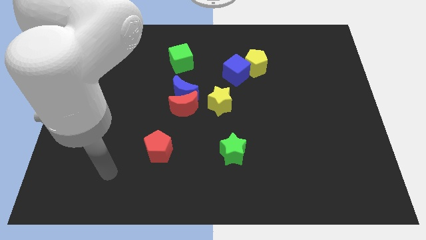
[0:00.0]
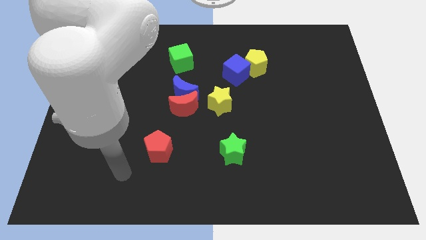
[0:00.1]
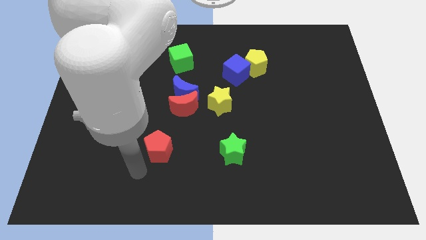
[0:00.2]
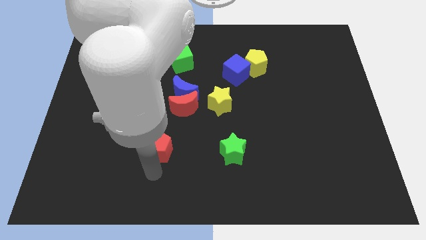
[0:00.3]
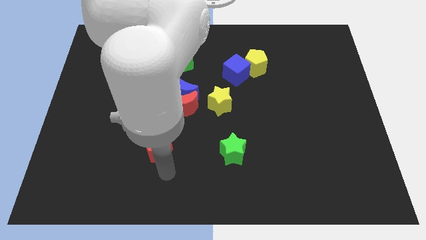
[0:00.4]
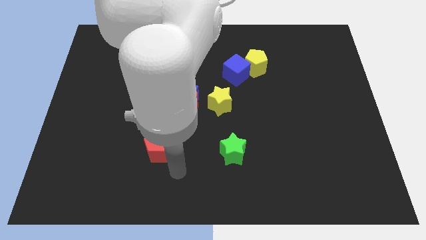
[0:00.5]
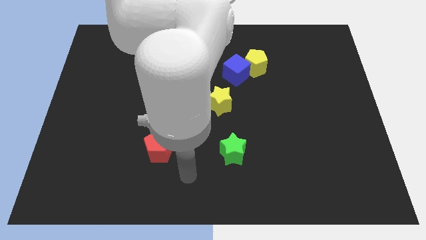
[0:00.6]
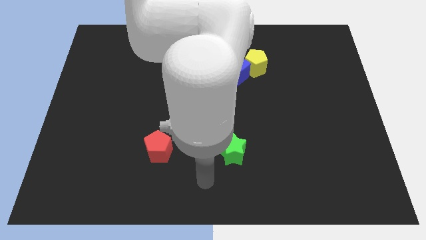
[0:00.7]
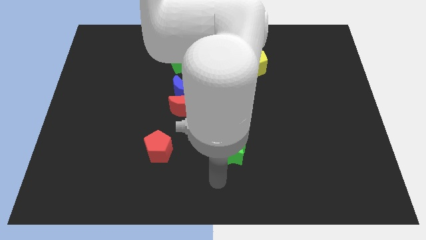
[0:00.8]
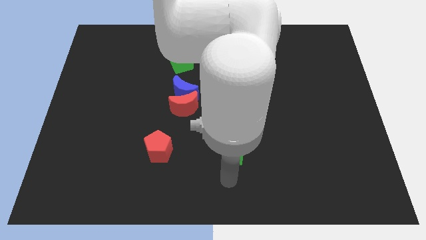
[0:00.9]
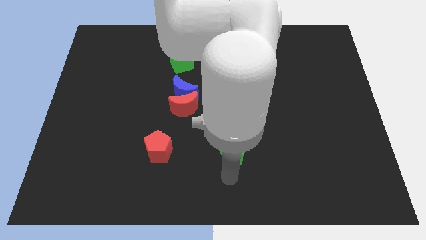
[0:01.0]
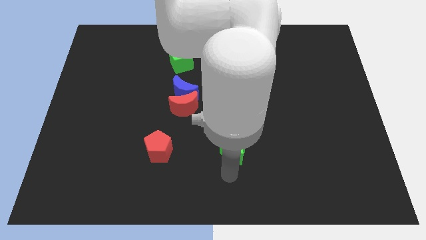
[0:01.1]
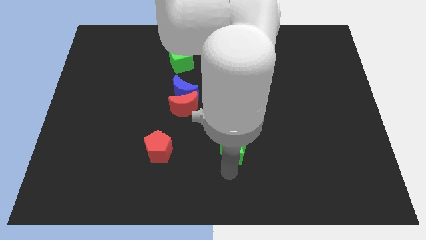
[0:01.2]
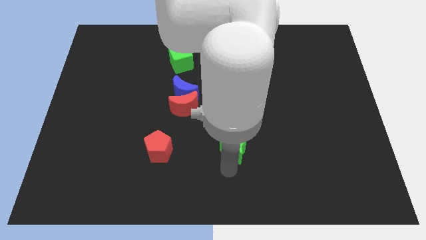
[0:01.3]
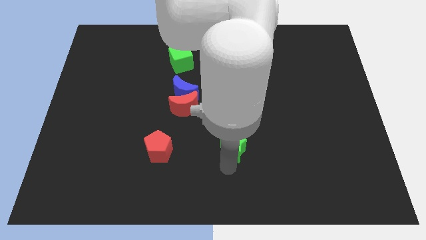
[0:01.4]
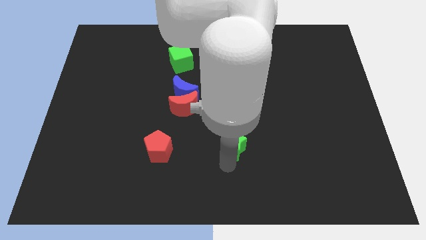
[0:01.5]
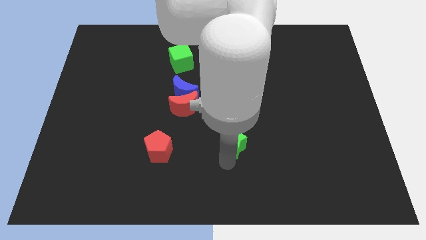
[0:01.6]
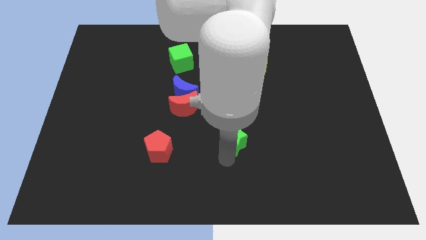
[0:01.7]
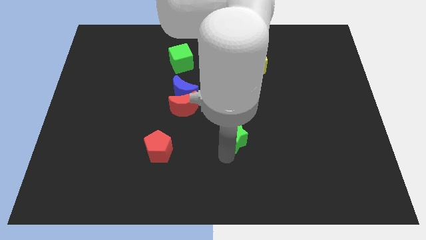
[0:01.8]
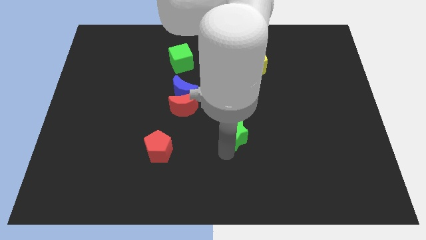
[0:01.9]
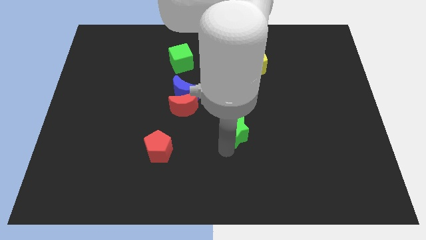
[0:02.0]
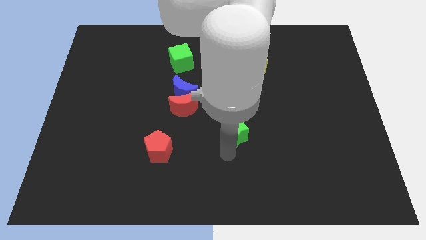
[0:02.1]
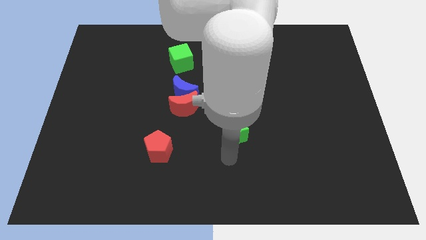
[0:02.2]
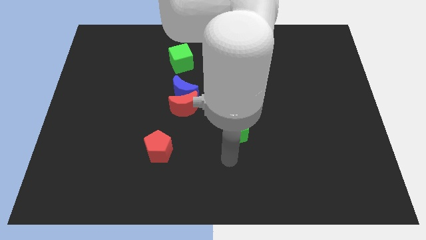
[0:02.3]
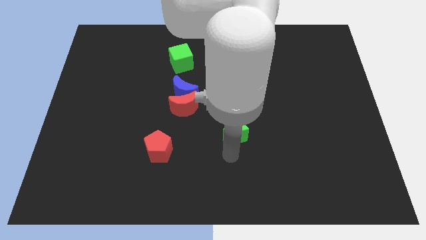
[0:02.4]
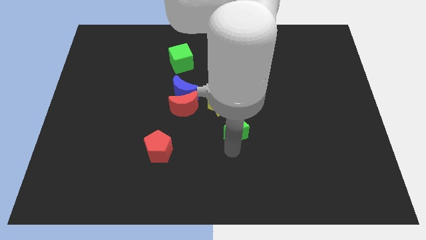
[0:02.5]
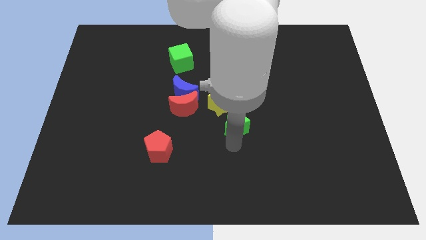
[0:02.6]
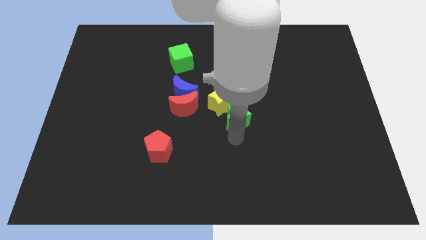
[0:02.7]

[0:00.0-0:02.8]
slide the green star somewhat up

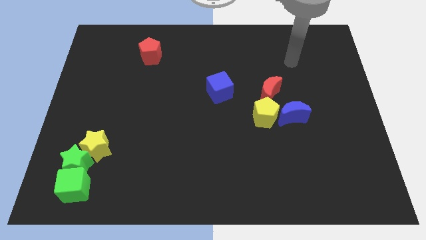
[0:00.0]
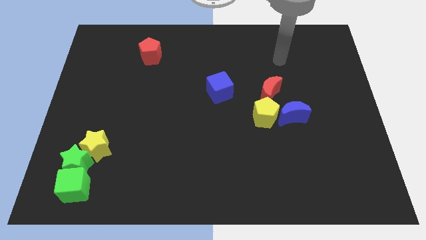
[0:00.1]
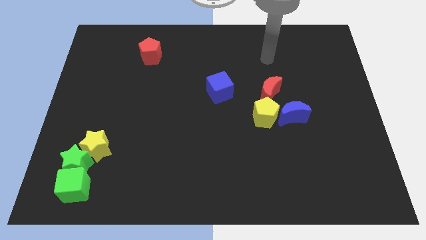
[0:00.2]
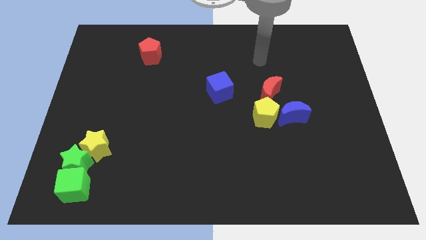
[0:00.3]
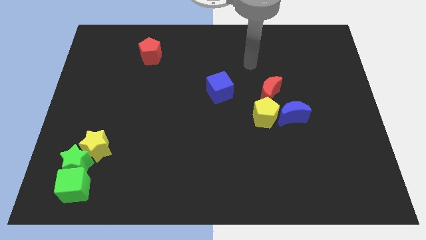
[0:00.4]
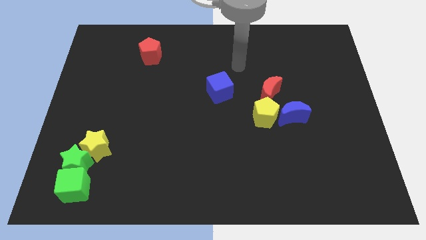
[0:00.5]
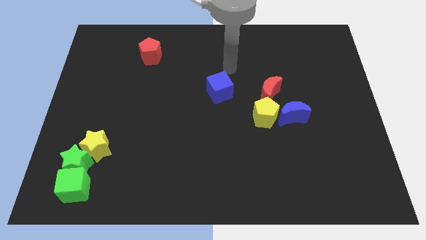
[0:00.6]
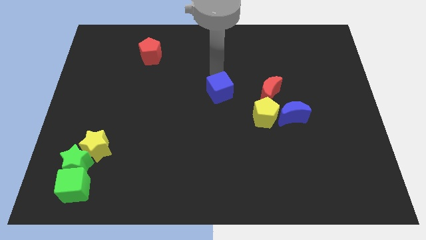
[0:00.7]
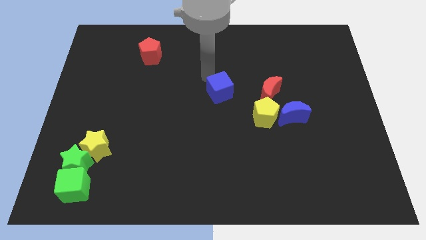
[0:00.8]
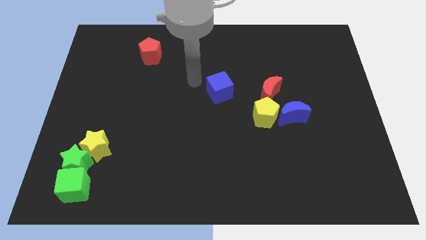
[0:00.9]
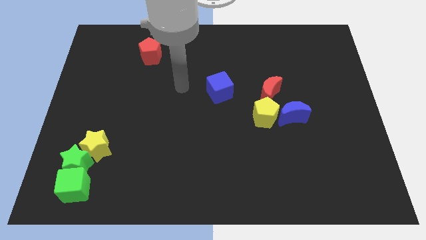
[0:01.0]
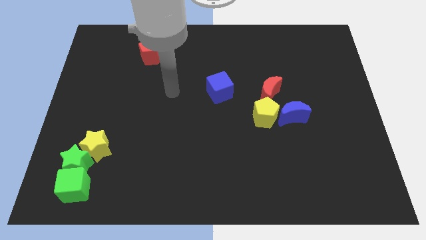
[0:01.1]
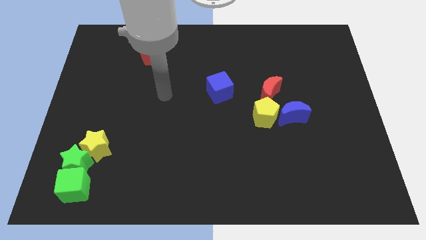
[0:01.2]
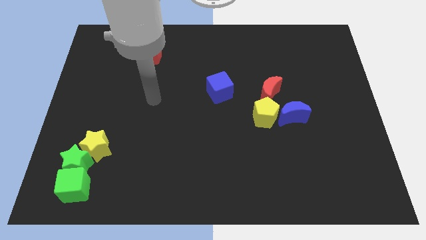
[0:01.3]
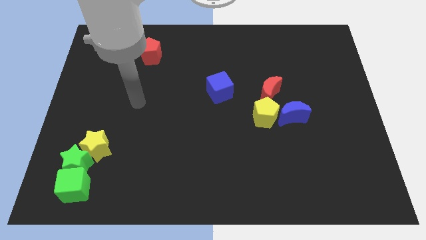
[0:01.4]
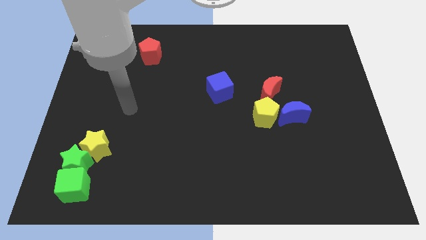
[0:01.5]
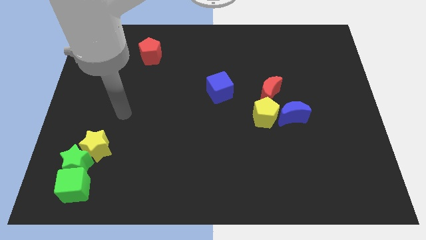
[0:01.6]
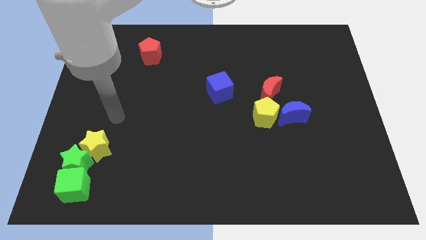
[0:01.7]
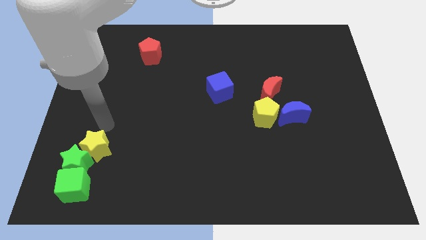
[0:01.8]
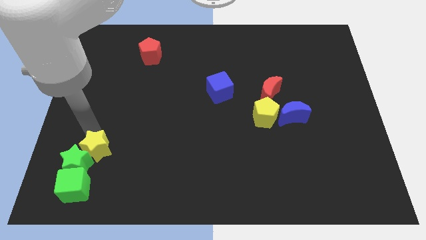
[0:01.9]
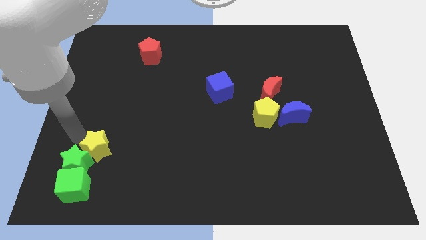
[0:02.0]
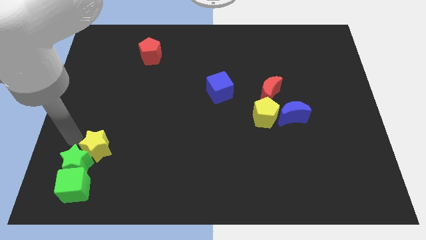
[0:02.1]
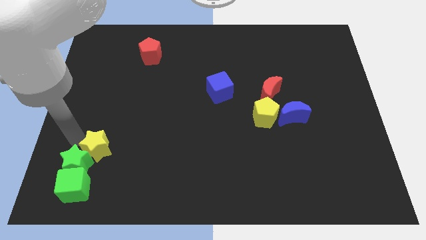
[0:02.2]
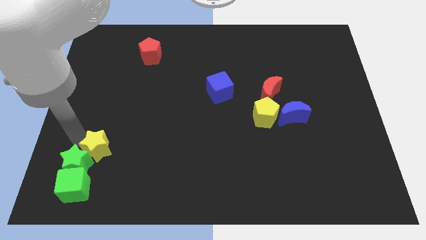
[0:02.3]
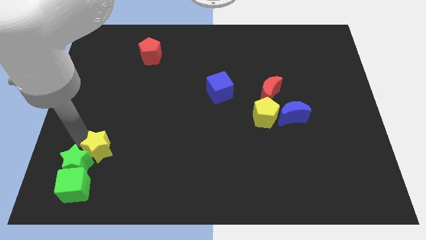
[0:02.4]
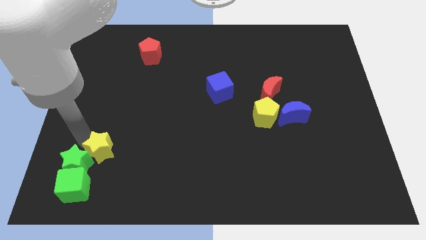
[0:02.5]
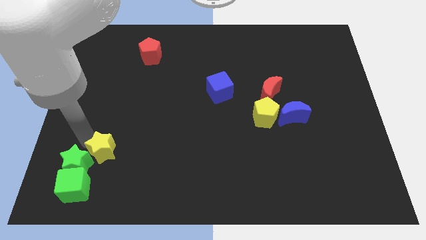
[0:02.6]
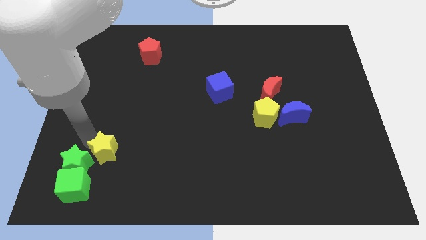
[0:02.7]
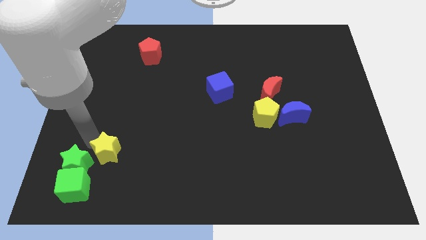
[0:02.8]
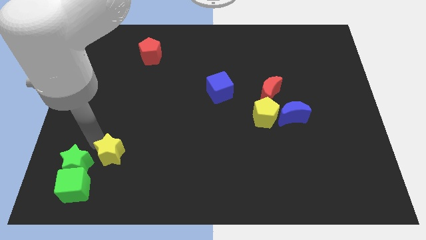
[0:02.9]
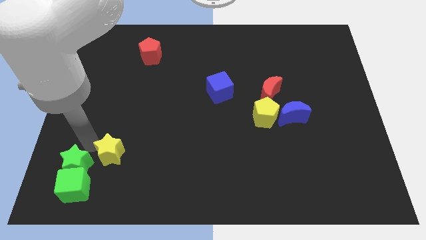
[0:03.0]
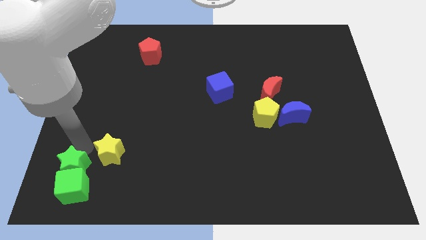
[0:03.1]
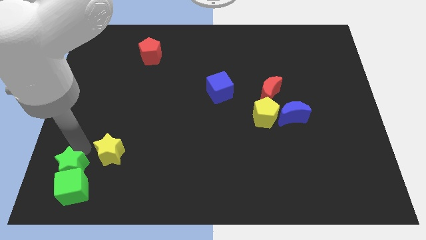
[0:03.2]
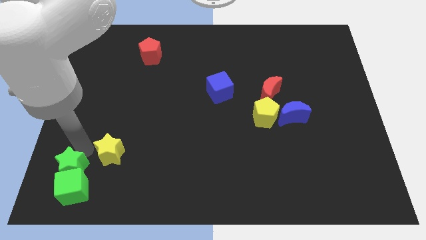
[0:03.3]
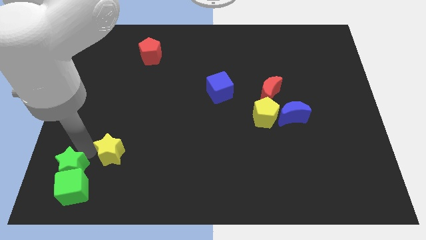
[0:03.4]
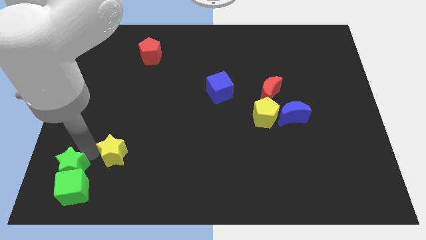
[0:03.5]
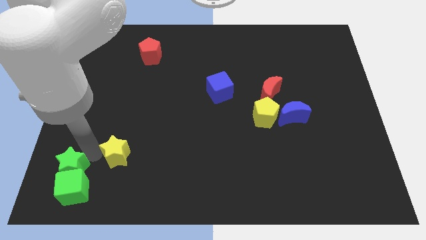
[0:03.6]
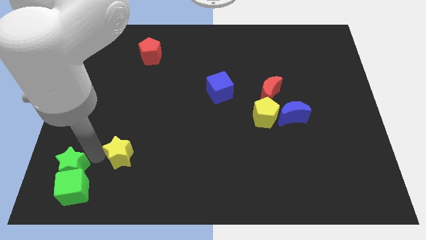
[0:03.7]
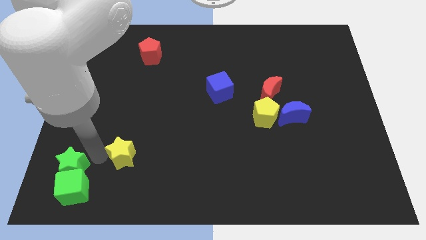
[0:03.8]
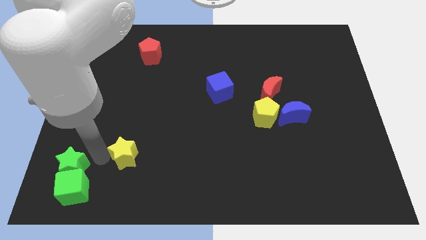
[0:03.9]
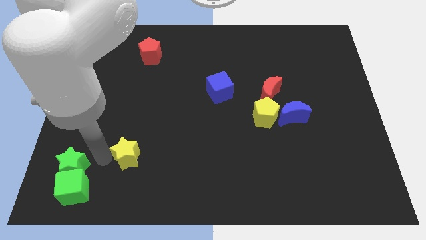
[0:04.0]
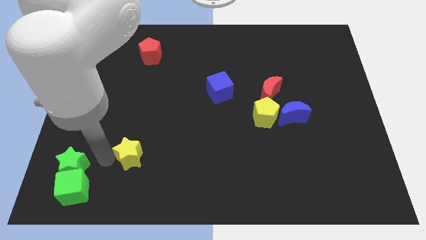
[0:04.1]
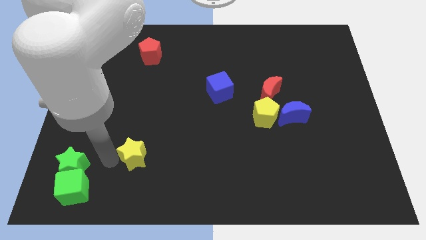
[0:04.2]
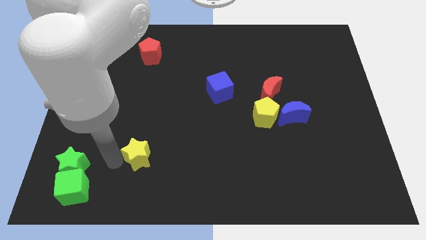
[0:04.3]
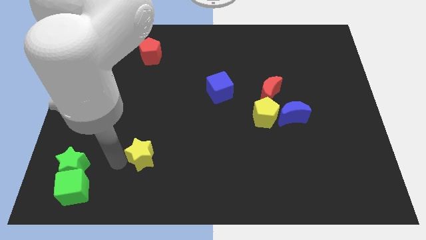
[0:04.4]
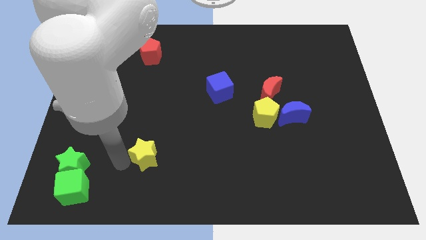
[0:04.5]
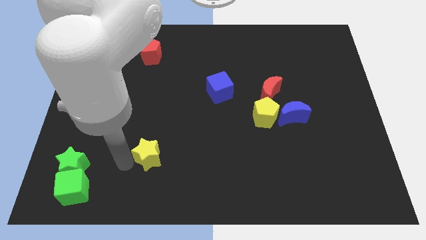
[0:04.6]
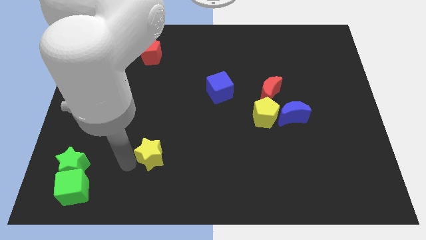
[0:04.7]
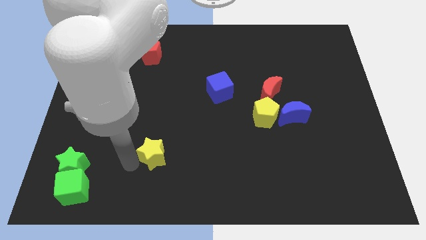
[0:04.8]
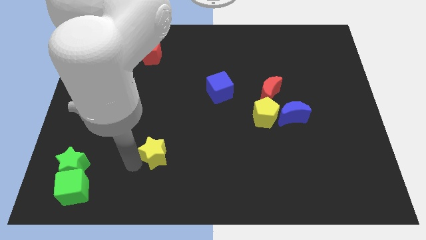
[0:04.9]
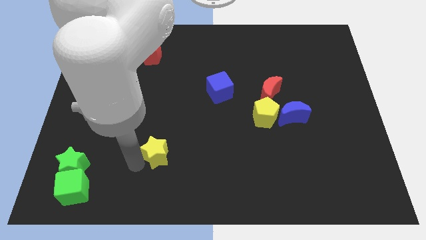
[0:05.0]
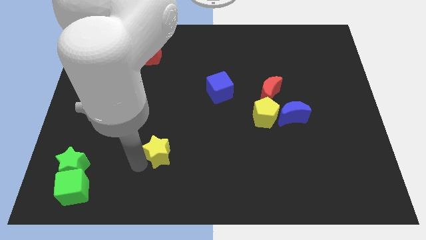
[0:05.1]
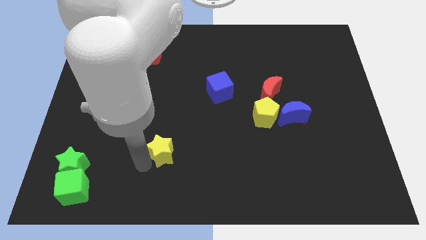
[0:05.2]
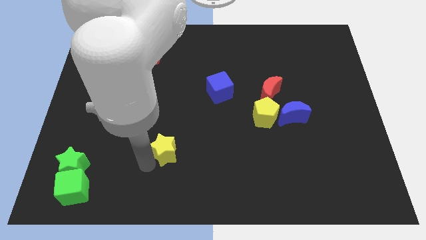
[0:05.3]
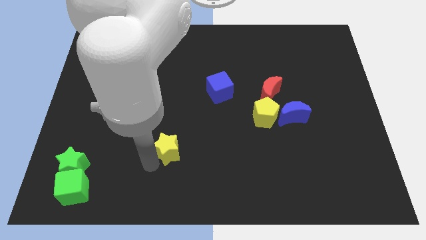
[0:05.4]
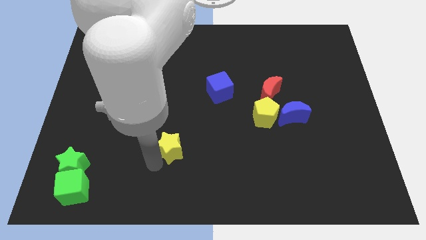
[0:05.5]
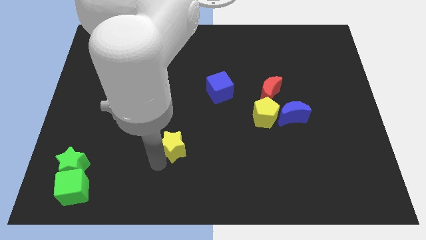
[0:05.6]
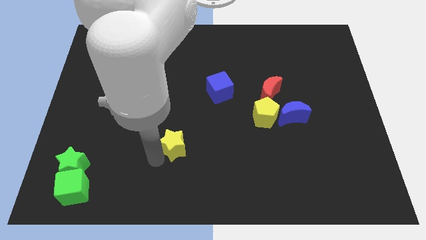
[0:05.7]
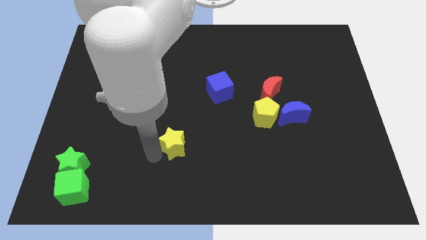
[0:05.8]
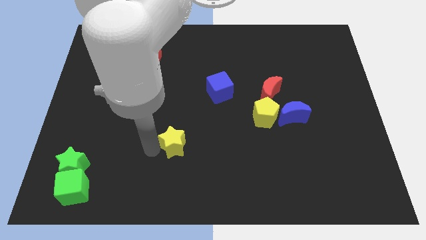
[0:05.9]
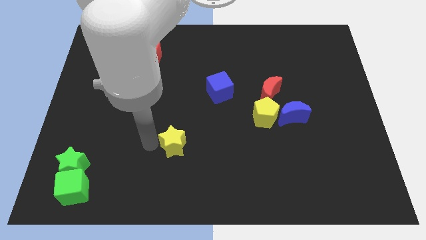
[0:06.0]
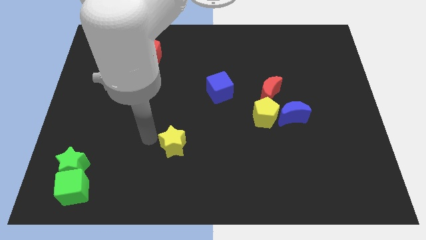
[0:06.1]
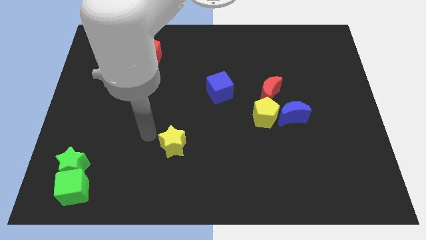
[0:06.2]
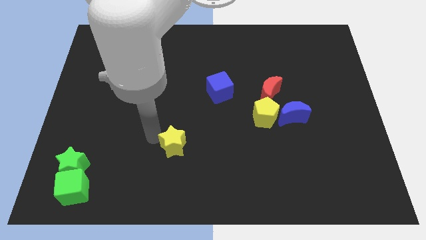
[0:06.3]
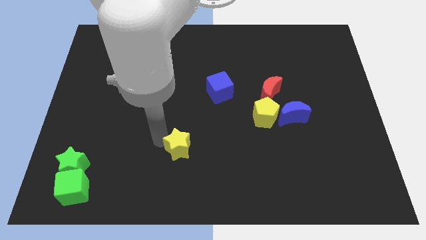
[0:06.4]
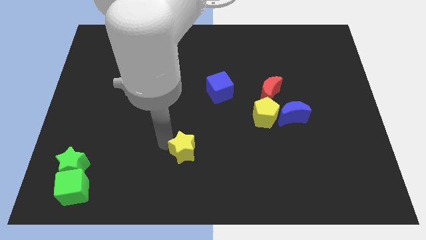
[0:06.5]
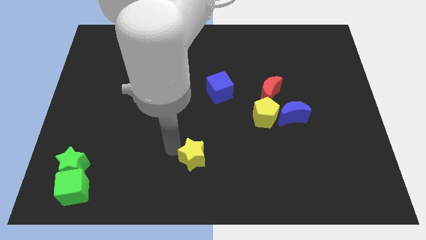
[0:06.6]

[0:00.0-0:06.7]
push the yellow star right
